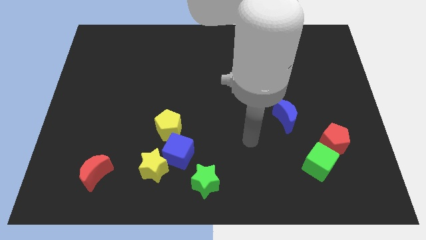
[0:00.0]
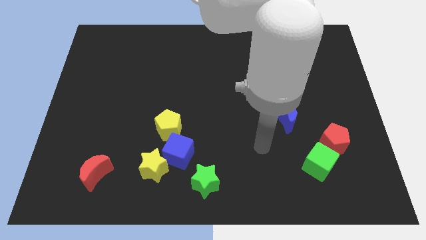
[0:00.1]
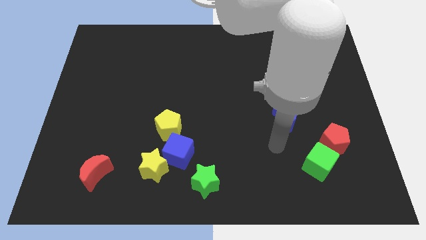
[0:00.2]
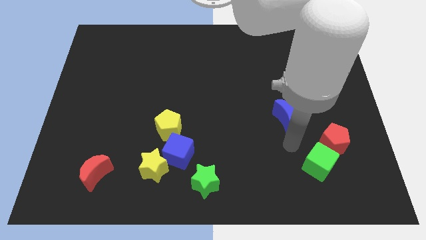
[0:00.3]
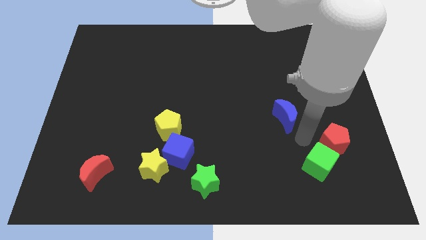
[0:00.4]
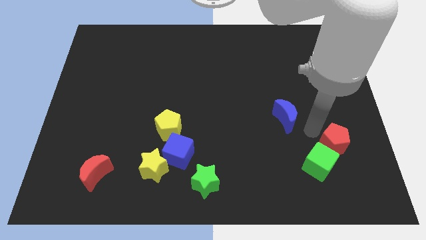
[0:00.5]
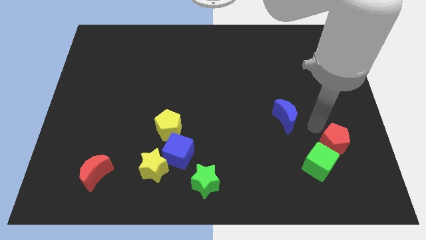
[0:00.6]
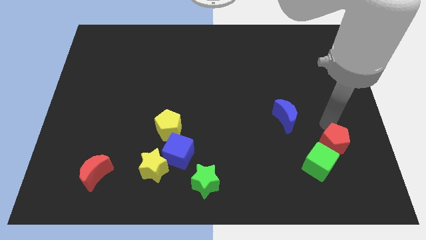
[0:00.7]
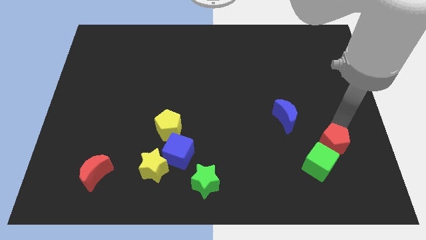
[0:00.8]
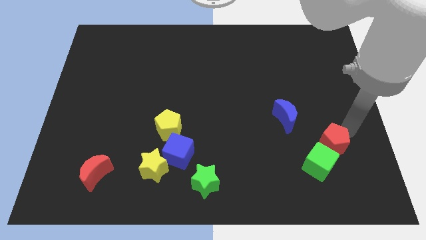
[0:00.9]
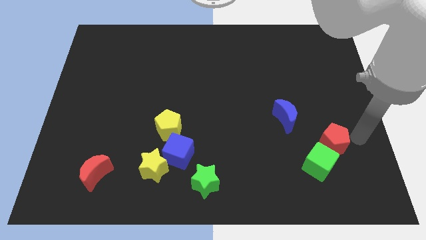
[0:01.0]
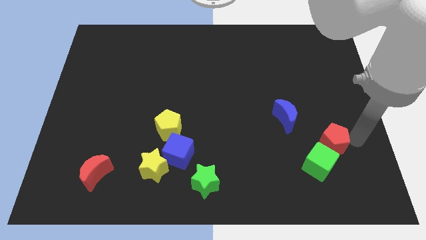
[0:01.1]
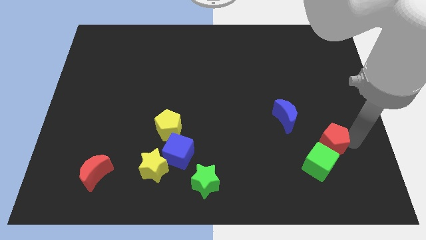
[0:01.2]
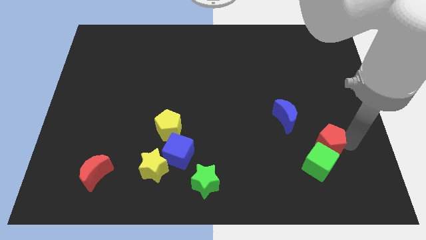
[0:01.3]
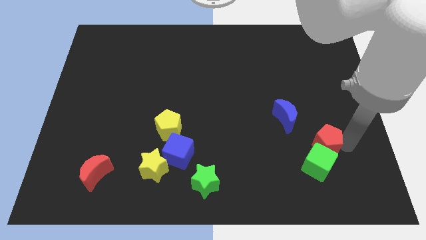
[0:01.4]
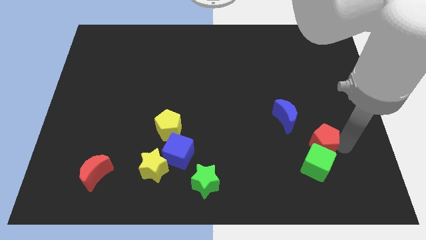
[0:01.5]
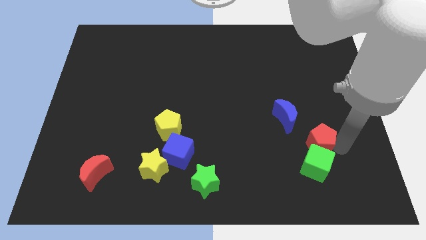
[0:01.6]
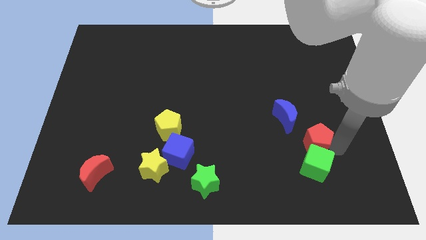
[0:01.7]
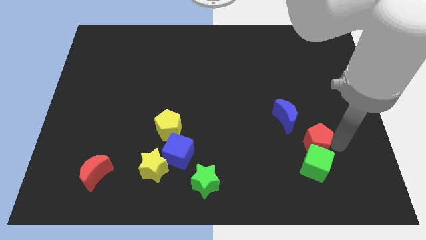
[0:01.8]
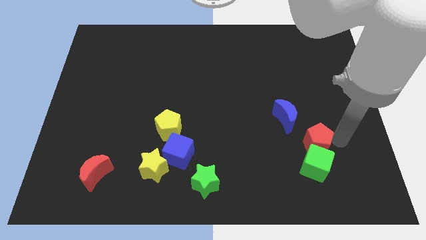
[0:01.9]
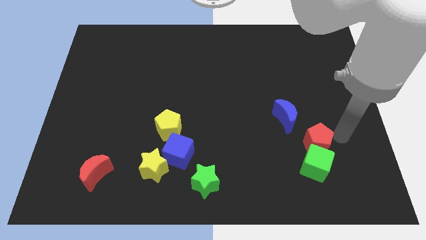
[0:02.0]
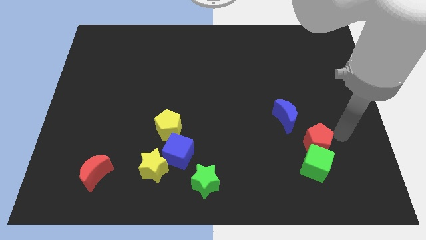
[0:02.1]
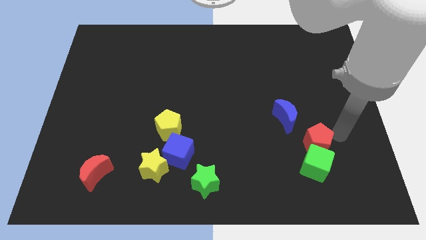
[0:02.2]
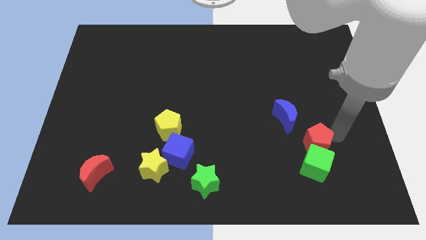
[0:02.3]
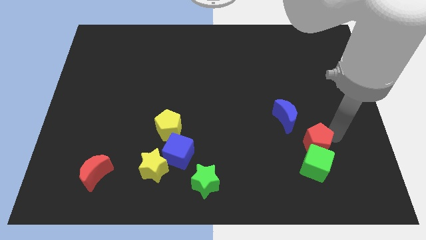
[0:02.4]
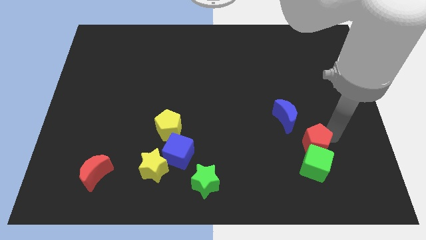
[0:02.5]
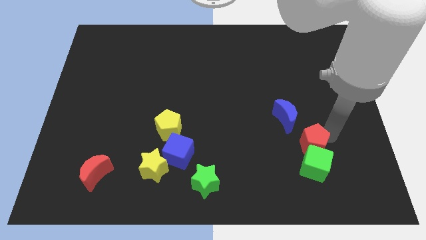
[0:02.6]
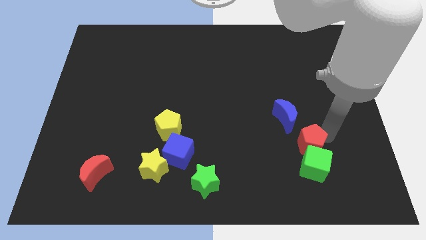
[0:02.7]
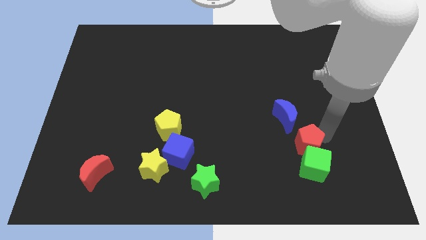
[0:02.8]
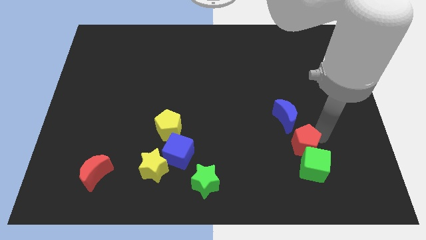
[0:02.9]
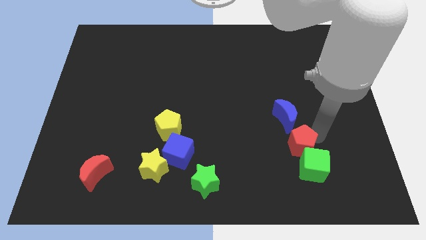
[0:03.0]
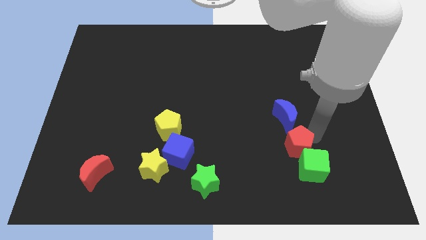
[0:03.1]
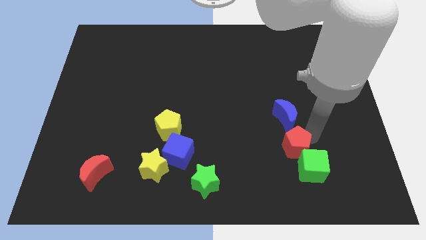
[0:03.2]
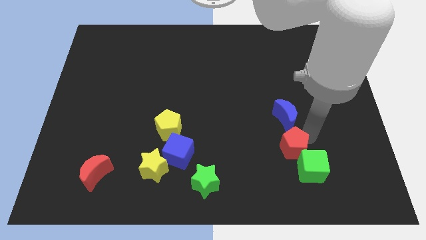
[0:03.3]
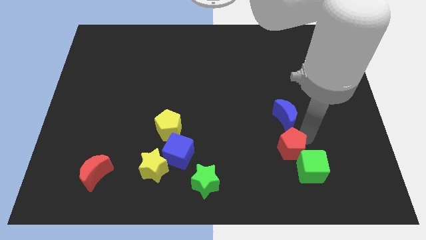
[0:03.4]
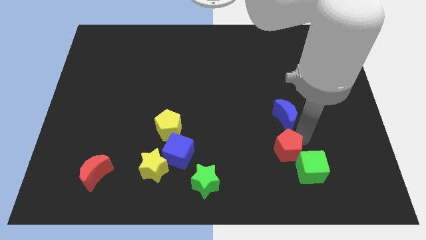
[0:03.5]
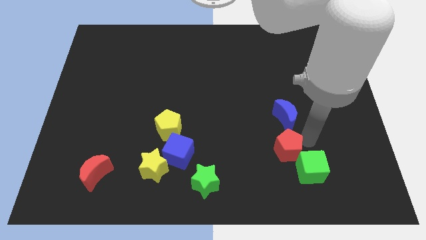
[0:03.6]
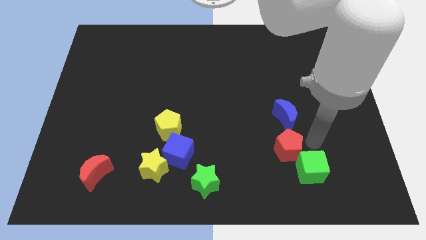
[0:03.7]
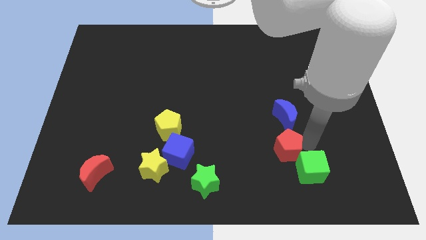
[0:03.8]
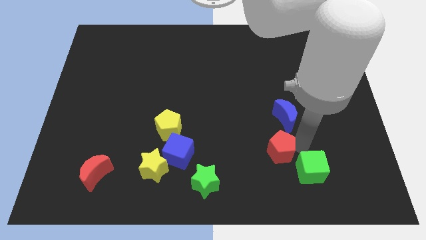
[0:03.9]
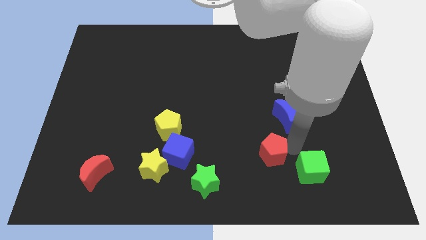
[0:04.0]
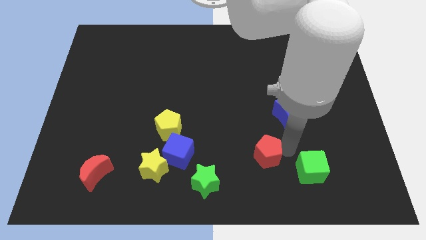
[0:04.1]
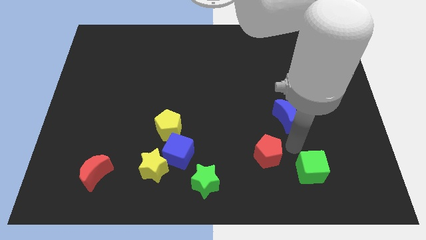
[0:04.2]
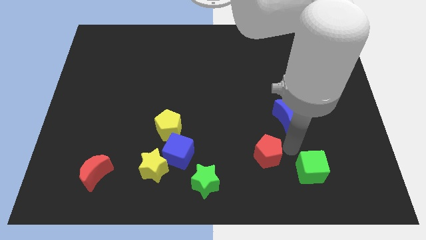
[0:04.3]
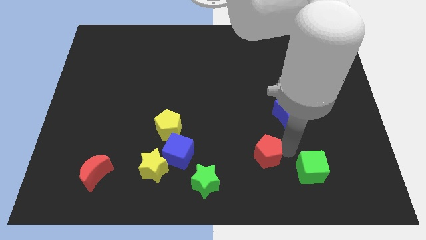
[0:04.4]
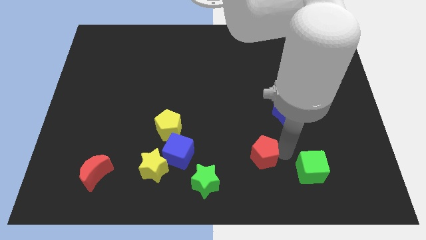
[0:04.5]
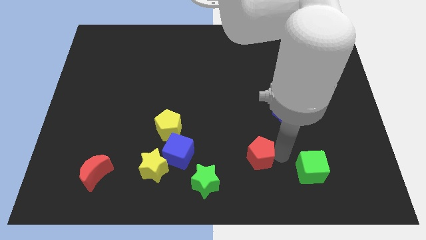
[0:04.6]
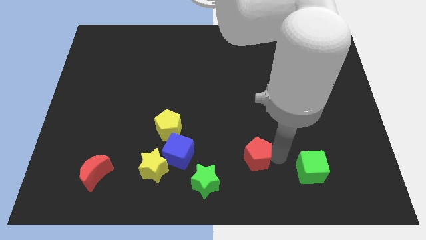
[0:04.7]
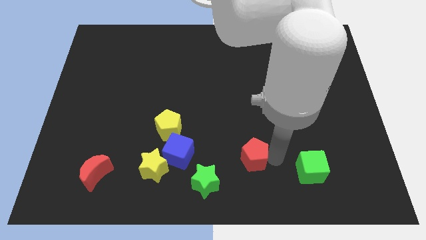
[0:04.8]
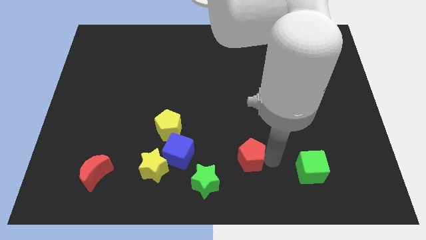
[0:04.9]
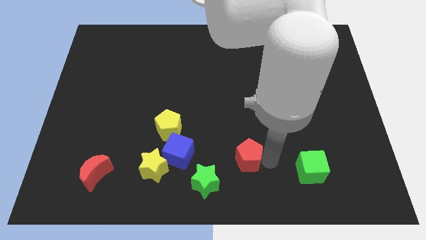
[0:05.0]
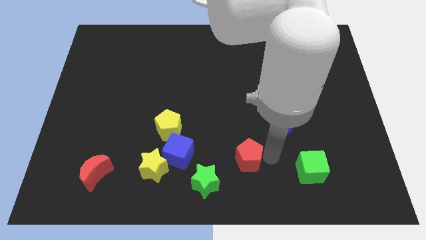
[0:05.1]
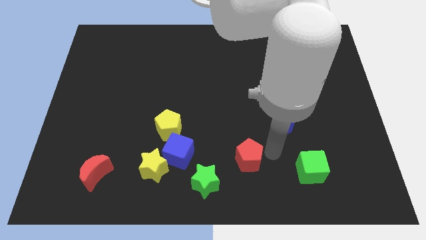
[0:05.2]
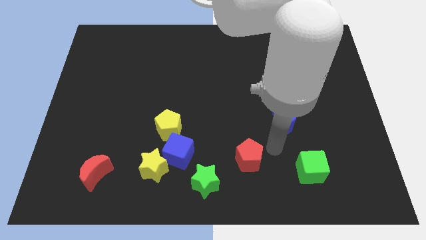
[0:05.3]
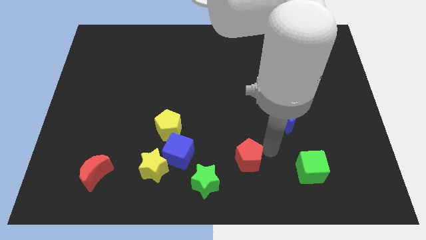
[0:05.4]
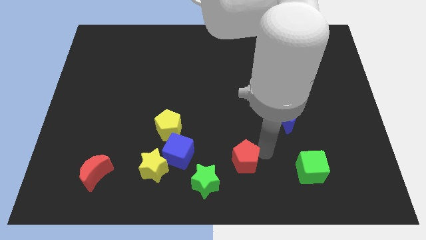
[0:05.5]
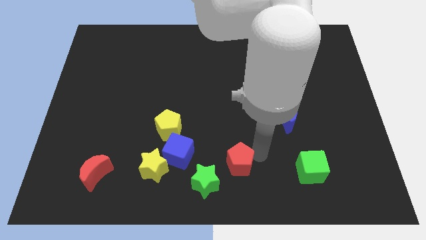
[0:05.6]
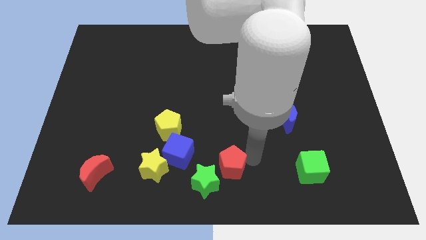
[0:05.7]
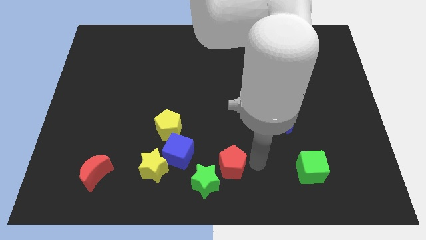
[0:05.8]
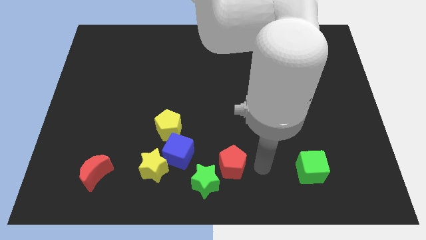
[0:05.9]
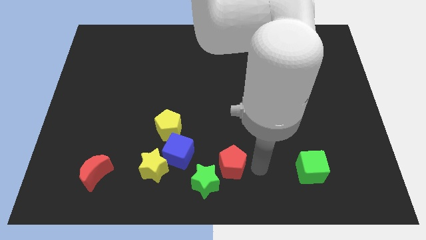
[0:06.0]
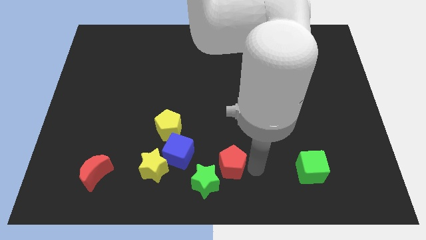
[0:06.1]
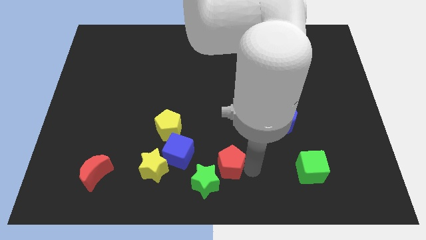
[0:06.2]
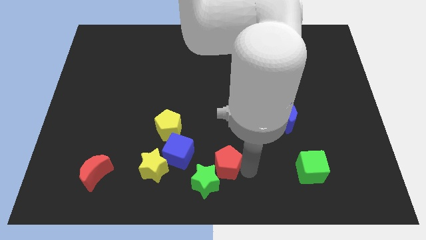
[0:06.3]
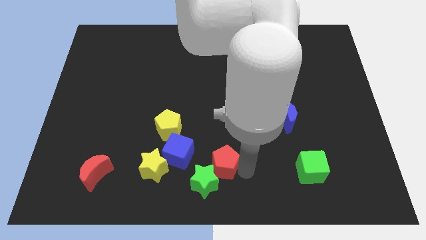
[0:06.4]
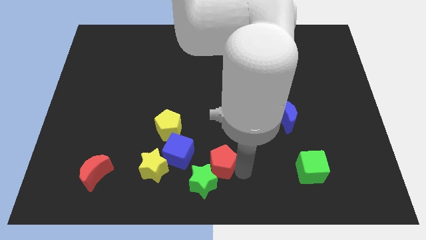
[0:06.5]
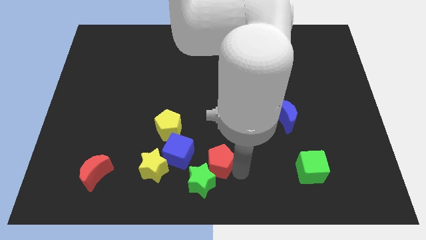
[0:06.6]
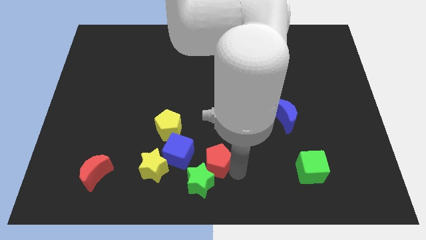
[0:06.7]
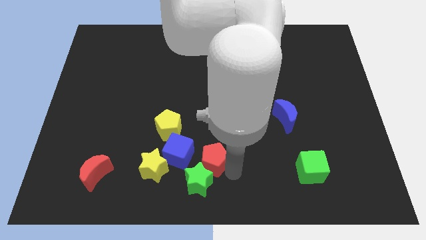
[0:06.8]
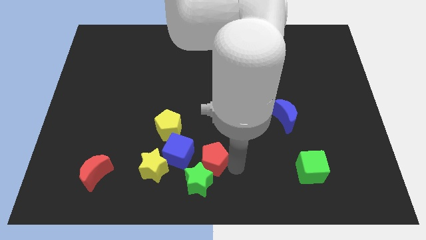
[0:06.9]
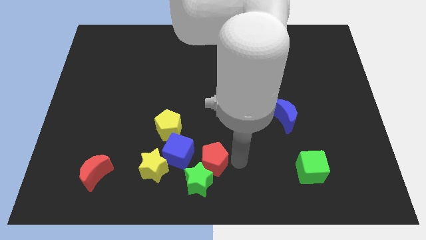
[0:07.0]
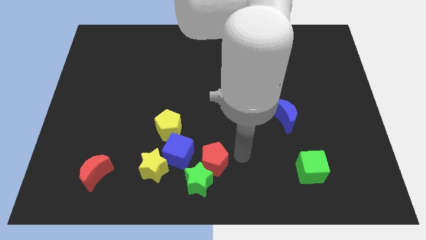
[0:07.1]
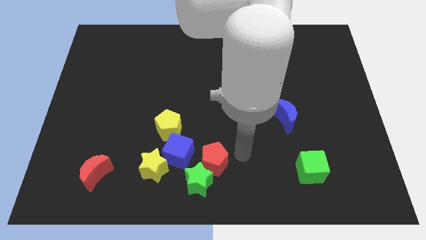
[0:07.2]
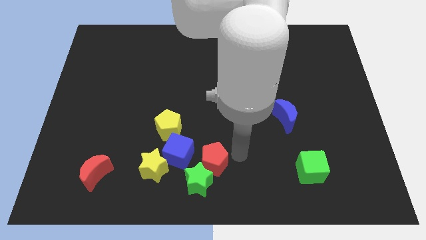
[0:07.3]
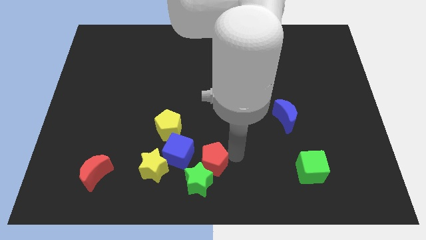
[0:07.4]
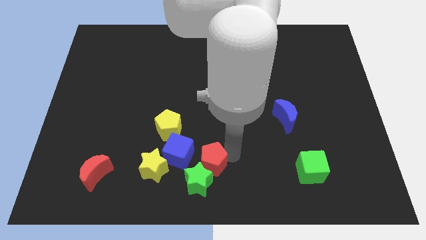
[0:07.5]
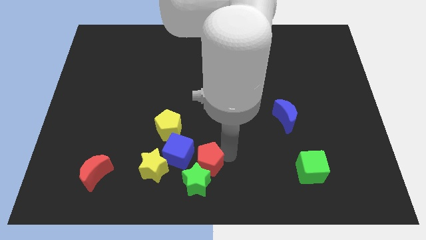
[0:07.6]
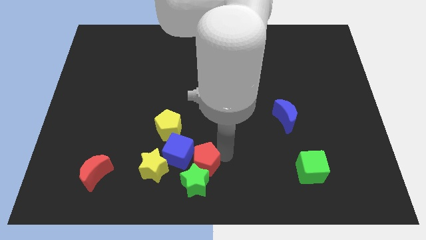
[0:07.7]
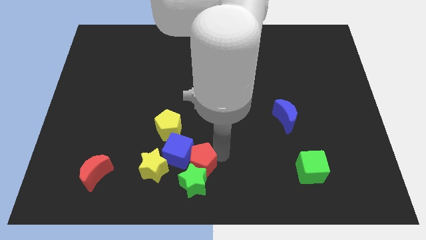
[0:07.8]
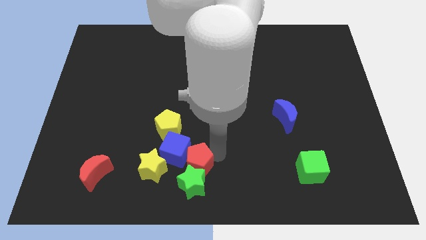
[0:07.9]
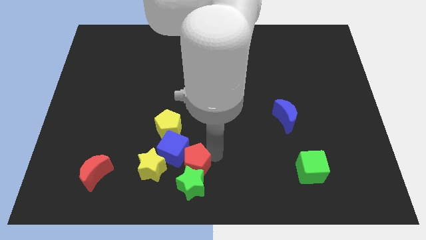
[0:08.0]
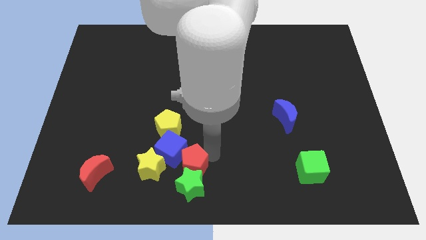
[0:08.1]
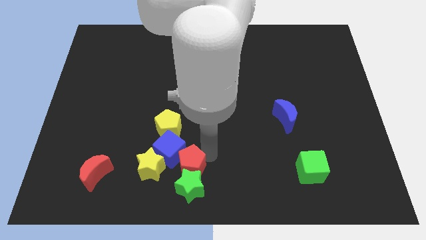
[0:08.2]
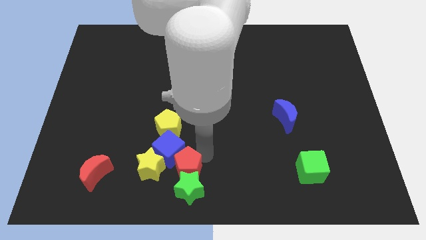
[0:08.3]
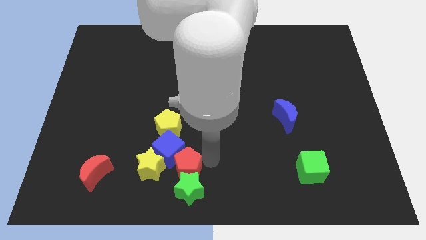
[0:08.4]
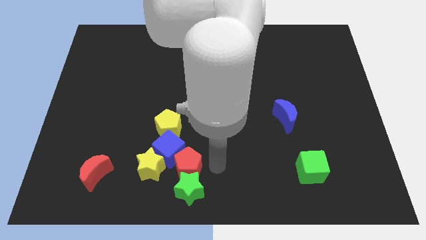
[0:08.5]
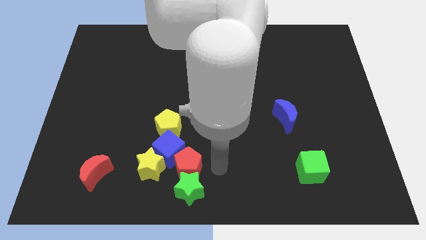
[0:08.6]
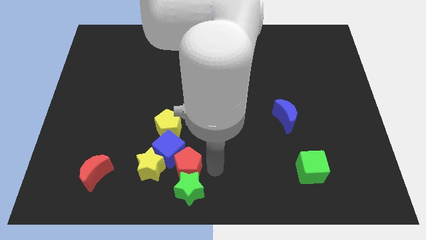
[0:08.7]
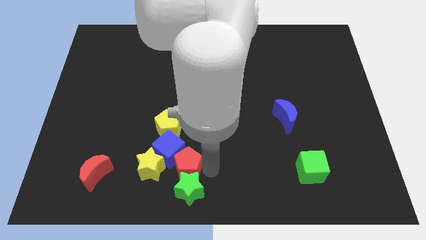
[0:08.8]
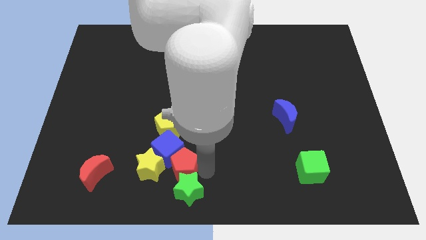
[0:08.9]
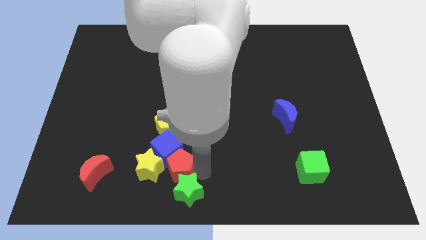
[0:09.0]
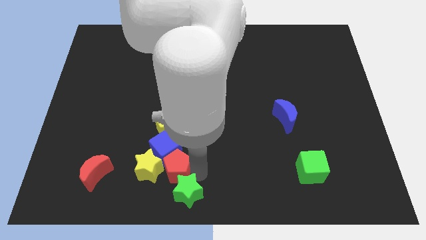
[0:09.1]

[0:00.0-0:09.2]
move the red pentagon towards the yellow star
